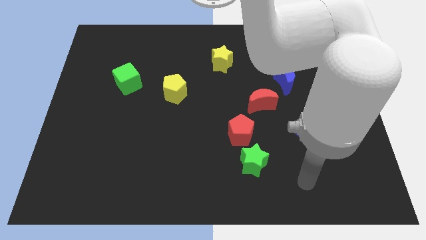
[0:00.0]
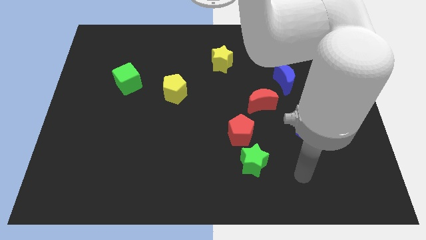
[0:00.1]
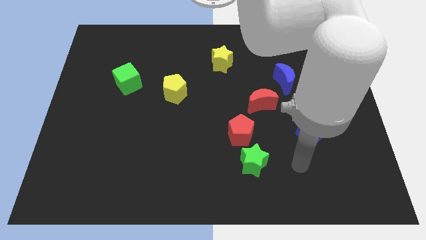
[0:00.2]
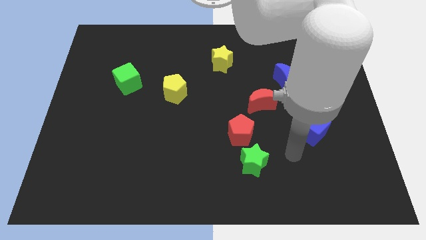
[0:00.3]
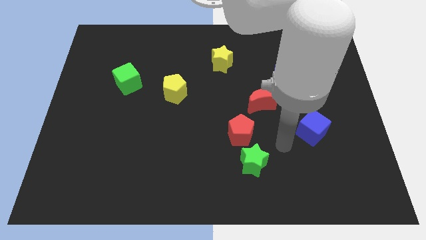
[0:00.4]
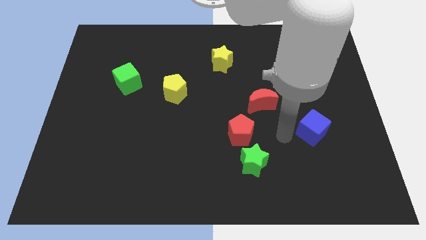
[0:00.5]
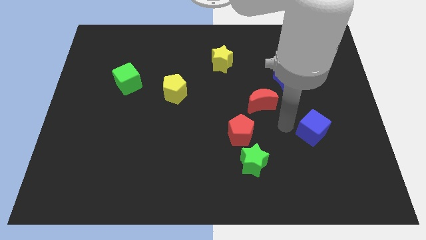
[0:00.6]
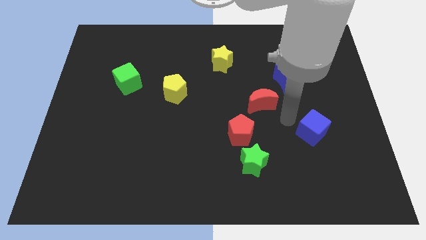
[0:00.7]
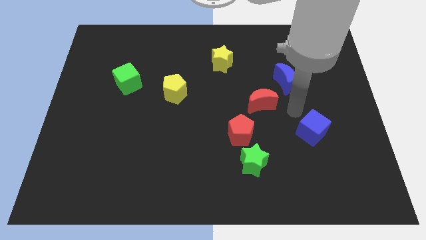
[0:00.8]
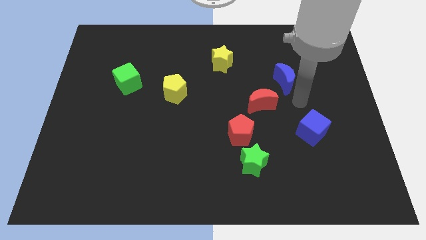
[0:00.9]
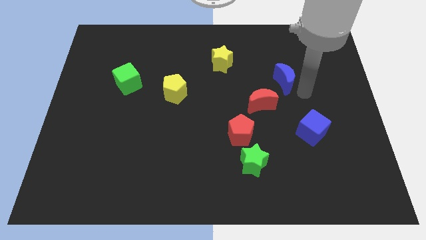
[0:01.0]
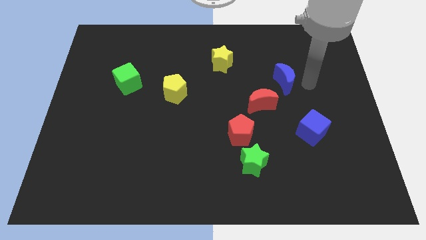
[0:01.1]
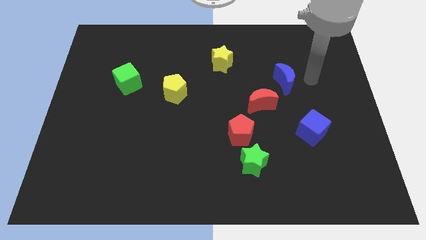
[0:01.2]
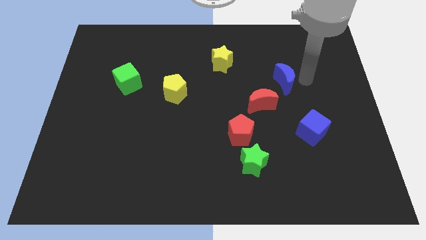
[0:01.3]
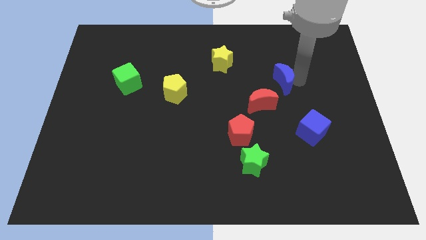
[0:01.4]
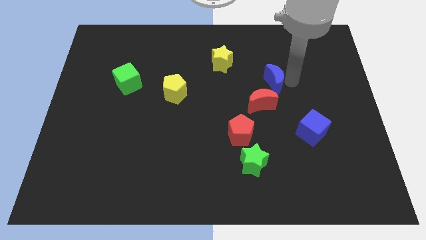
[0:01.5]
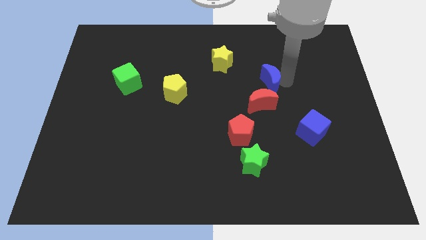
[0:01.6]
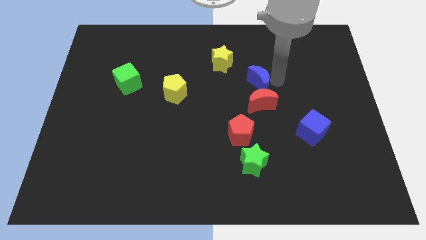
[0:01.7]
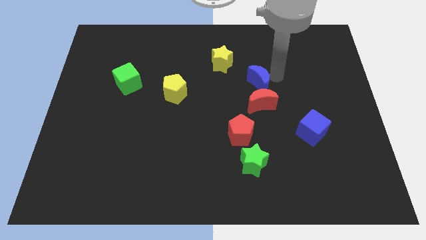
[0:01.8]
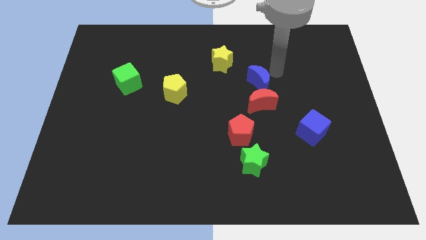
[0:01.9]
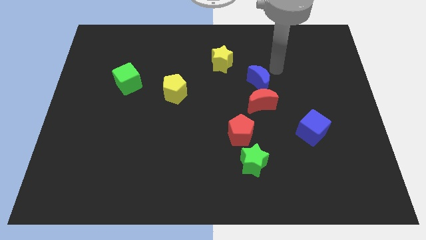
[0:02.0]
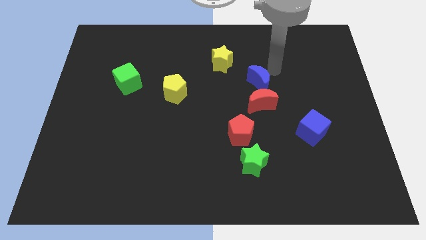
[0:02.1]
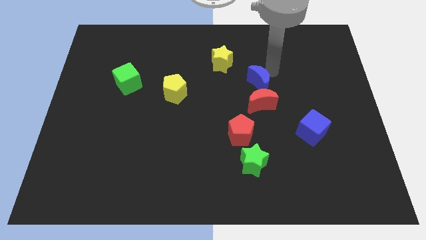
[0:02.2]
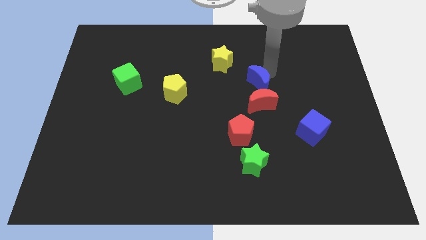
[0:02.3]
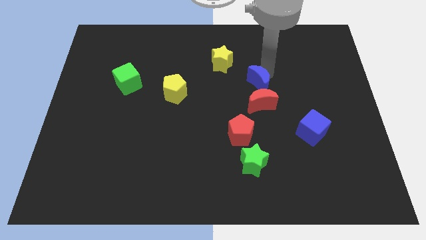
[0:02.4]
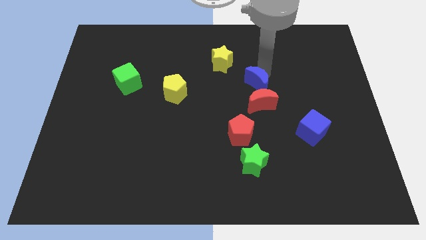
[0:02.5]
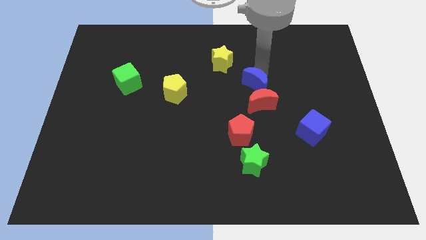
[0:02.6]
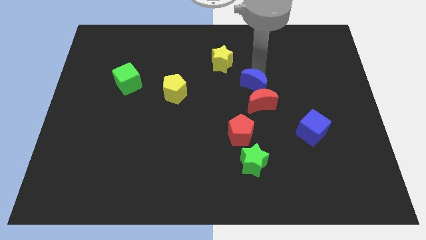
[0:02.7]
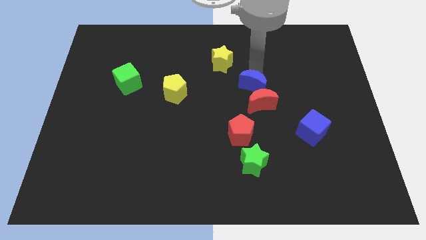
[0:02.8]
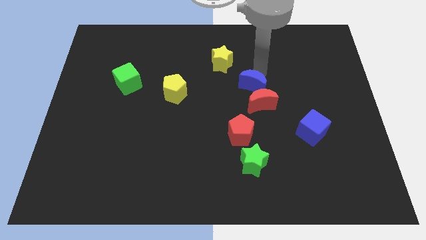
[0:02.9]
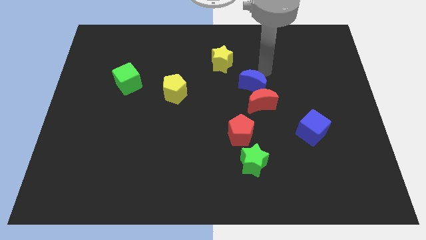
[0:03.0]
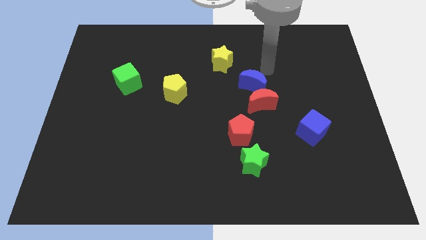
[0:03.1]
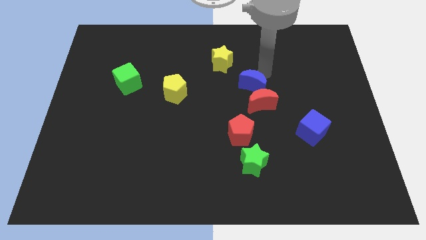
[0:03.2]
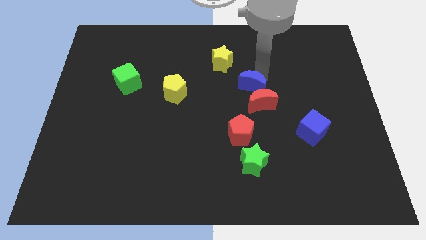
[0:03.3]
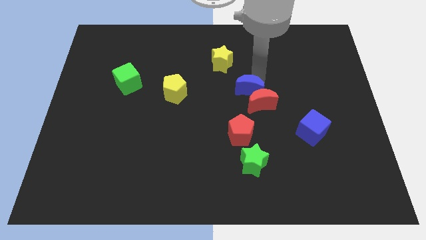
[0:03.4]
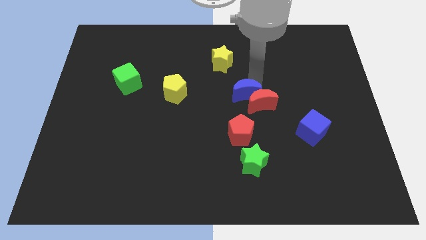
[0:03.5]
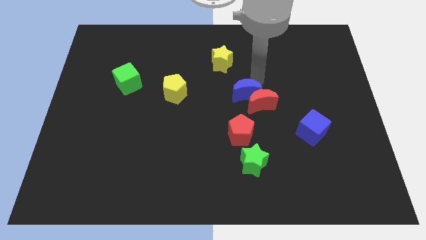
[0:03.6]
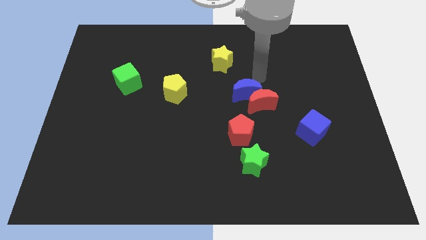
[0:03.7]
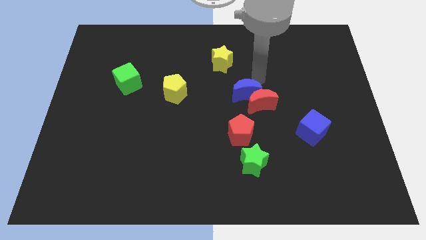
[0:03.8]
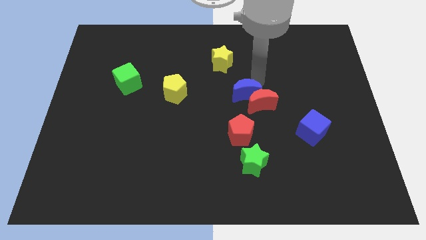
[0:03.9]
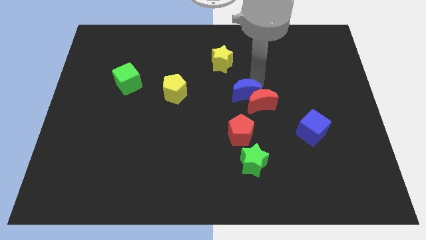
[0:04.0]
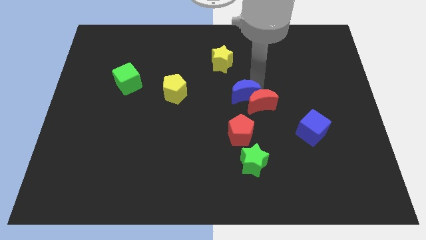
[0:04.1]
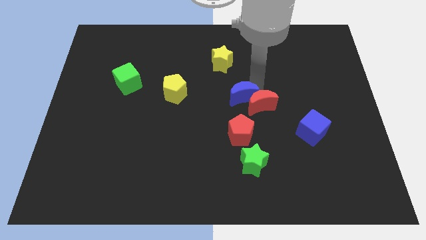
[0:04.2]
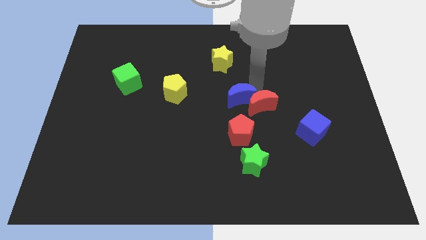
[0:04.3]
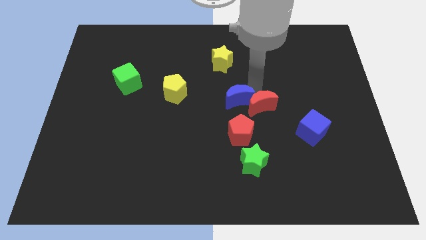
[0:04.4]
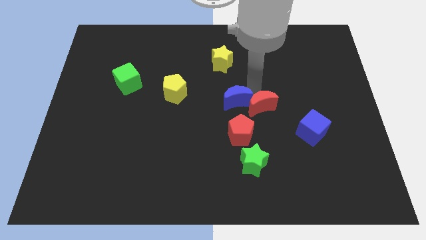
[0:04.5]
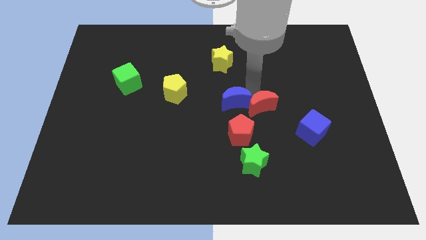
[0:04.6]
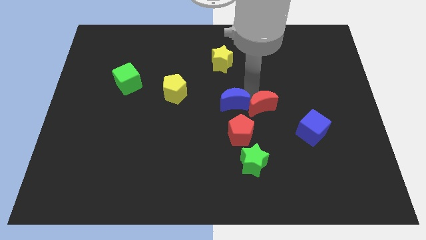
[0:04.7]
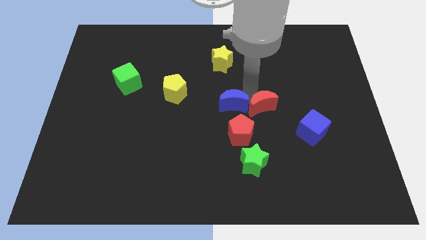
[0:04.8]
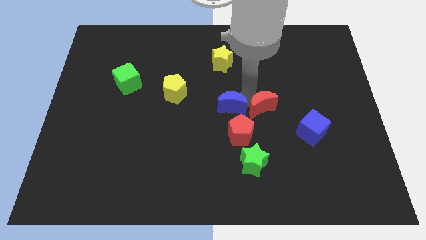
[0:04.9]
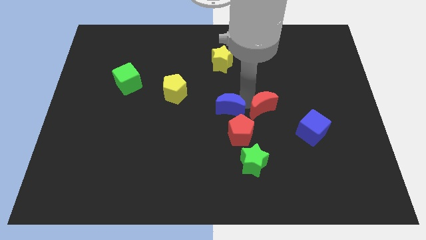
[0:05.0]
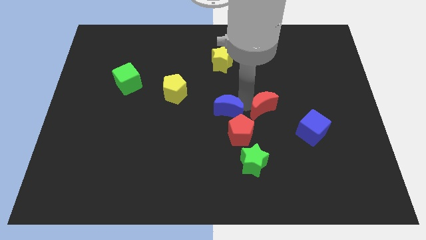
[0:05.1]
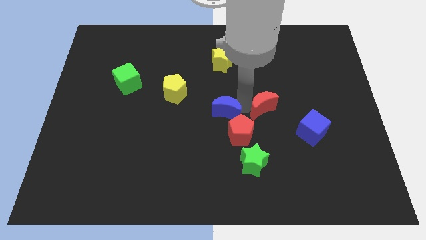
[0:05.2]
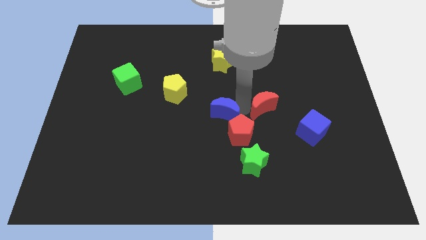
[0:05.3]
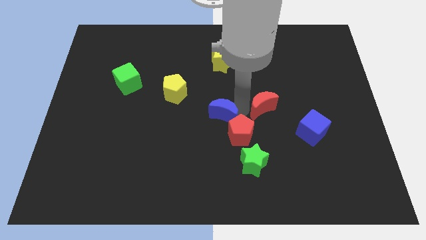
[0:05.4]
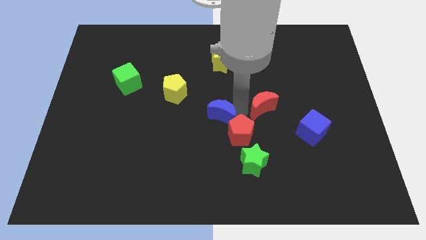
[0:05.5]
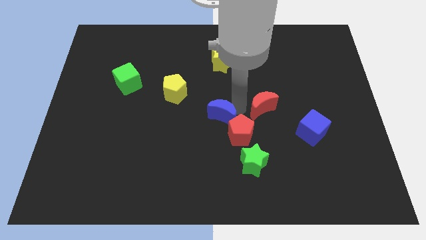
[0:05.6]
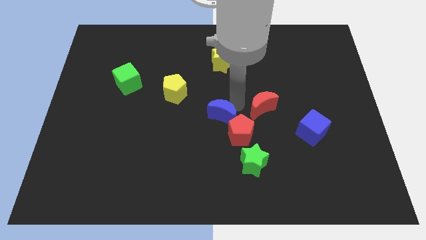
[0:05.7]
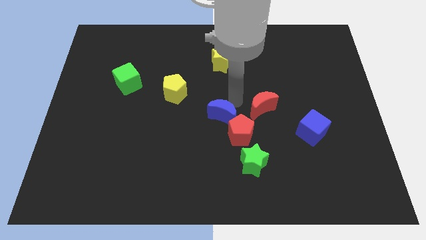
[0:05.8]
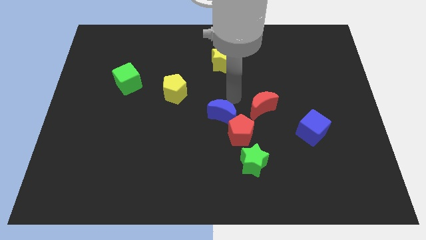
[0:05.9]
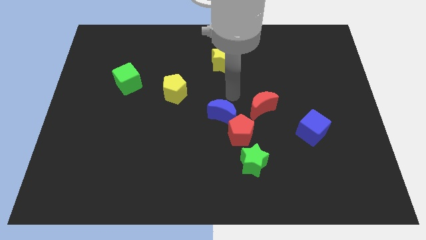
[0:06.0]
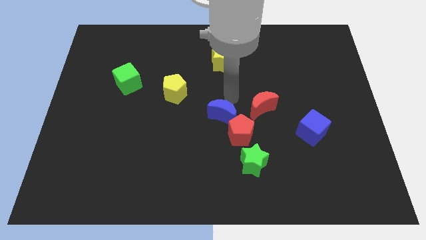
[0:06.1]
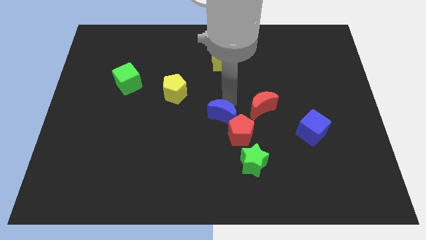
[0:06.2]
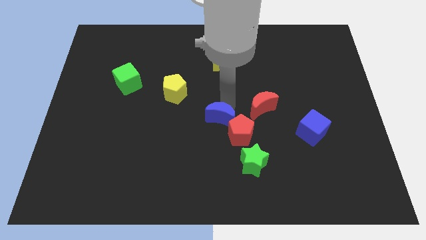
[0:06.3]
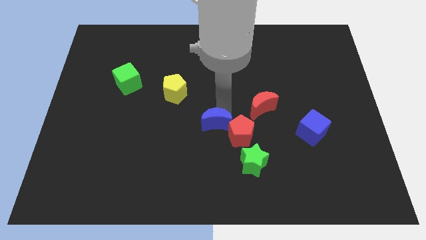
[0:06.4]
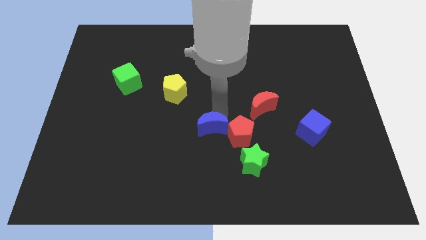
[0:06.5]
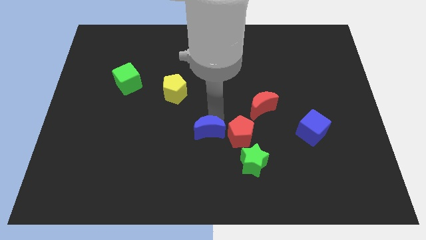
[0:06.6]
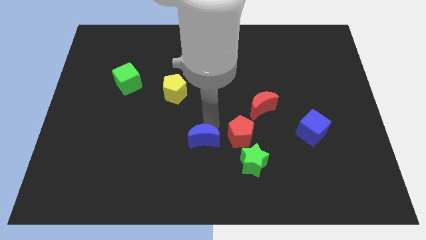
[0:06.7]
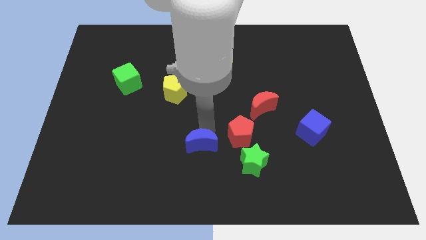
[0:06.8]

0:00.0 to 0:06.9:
put the blue moon to the left of the green star

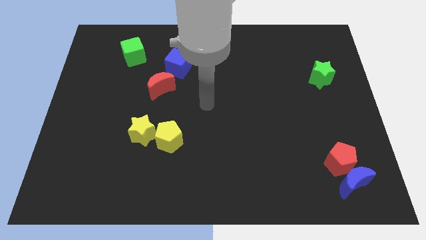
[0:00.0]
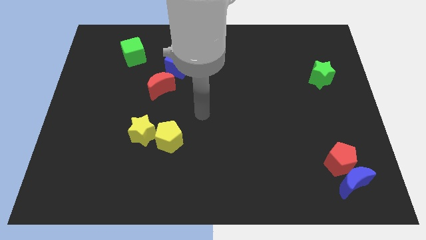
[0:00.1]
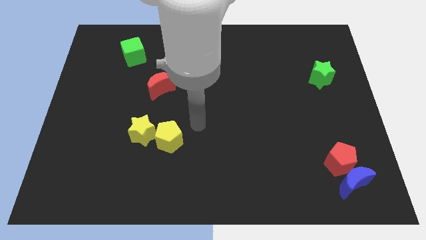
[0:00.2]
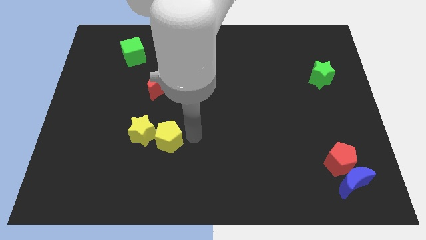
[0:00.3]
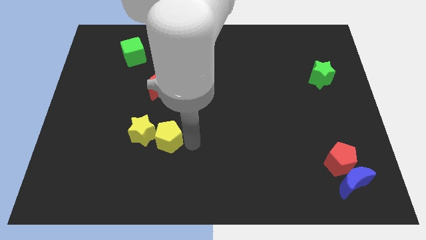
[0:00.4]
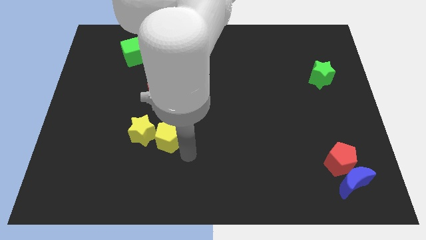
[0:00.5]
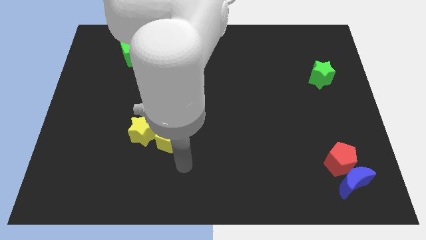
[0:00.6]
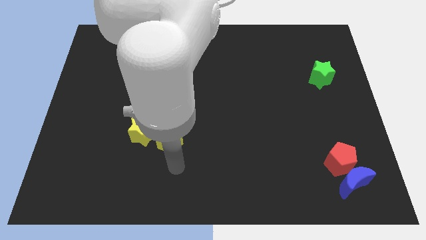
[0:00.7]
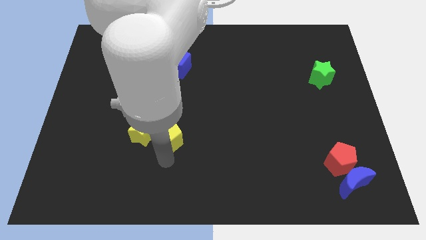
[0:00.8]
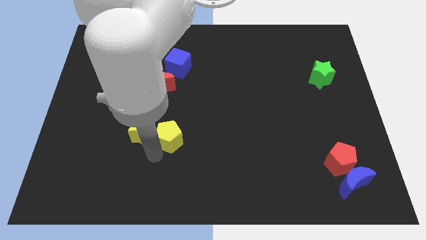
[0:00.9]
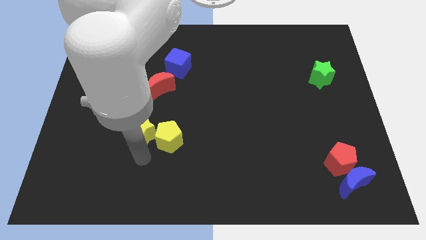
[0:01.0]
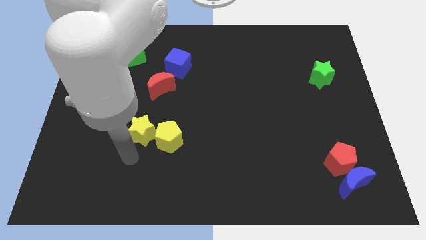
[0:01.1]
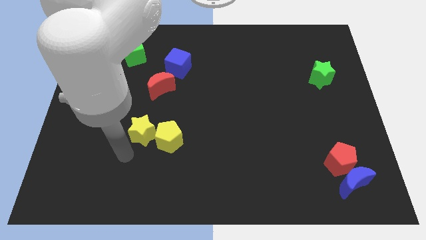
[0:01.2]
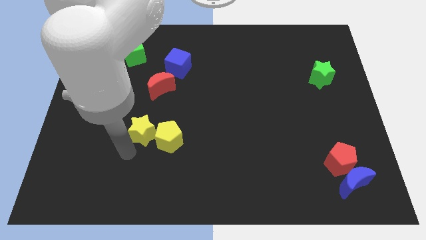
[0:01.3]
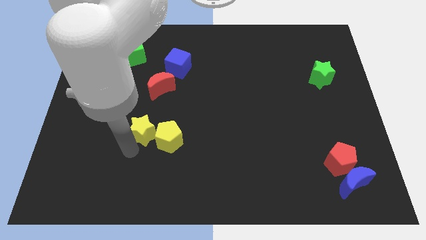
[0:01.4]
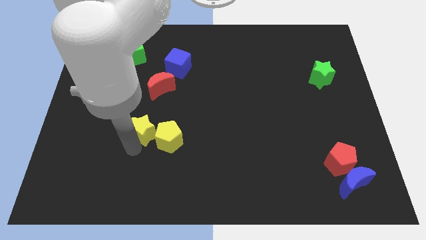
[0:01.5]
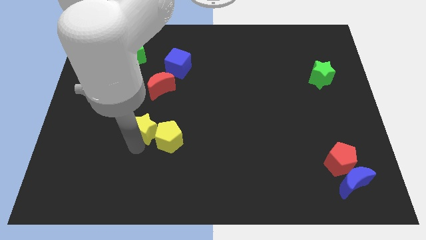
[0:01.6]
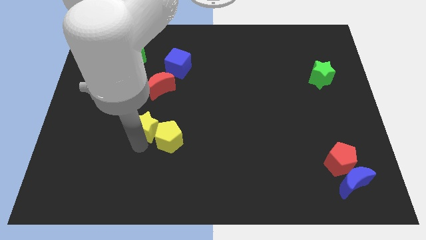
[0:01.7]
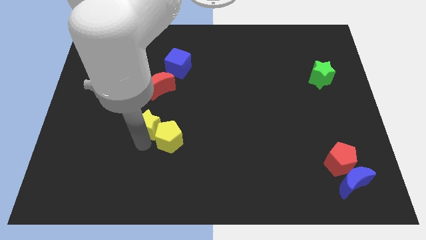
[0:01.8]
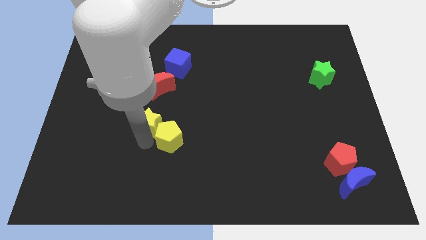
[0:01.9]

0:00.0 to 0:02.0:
push the yellow star above the yellow pentagon
